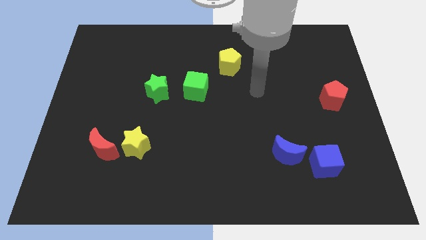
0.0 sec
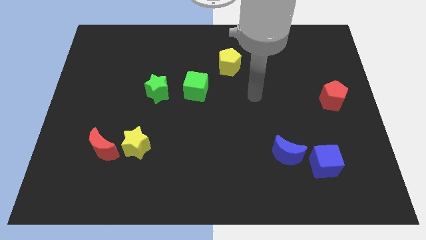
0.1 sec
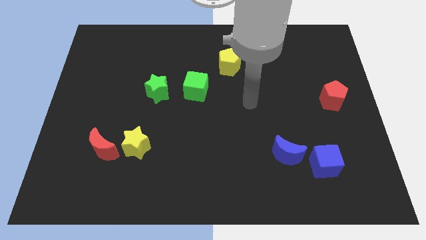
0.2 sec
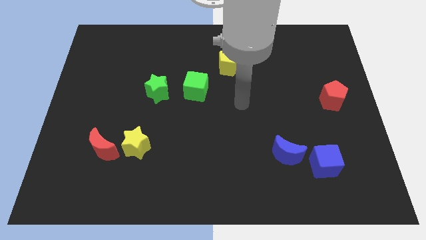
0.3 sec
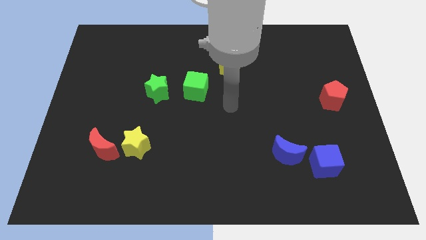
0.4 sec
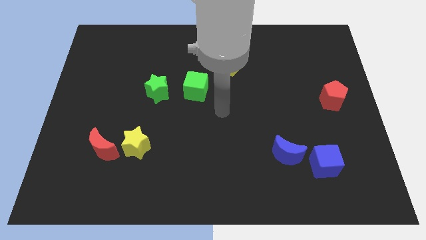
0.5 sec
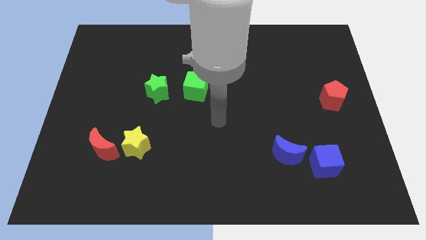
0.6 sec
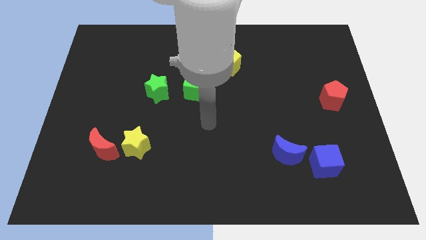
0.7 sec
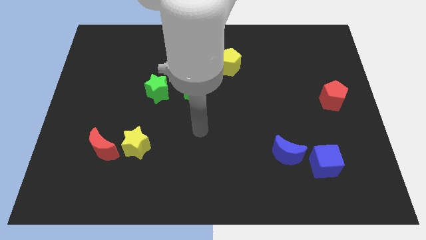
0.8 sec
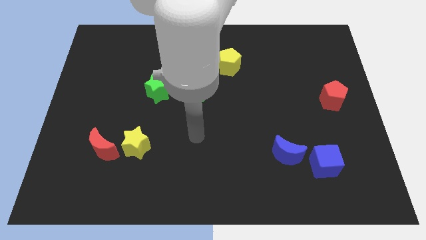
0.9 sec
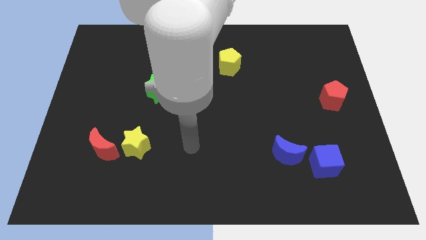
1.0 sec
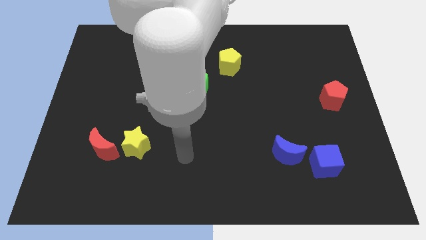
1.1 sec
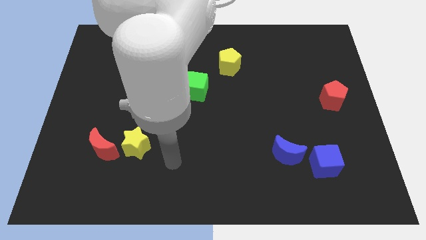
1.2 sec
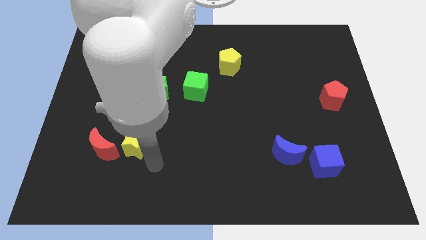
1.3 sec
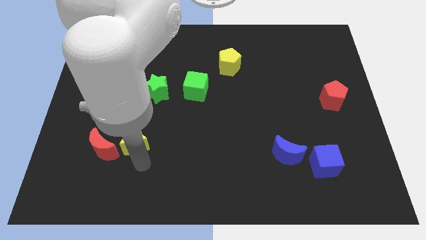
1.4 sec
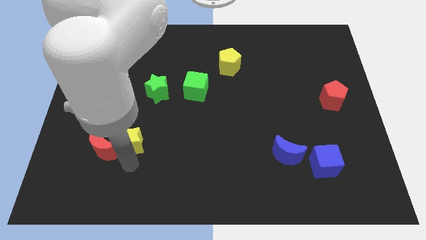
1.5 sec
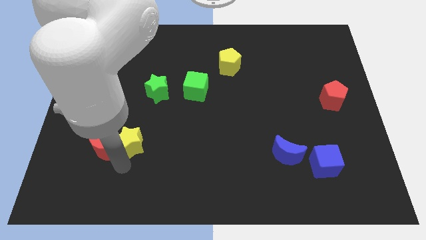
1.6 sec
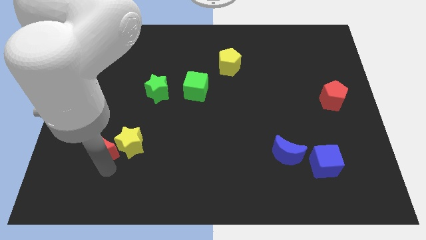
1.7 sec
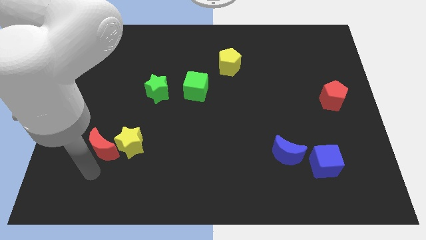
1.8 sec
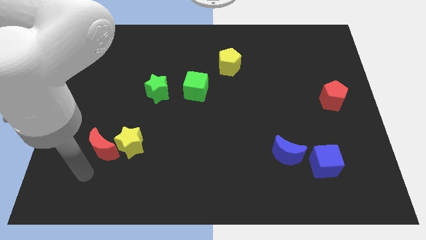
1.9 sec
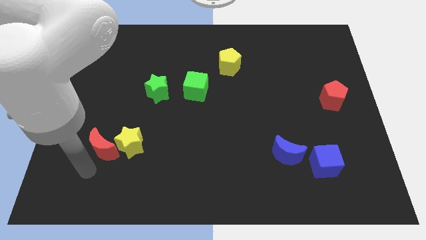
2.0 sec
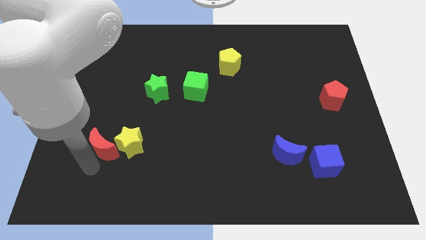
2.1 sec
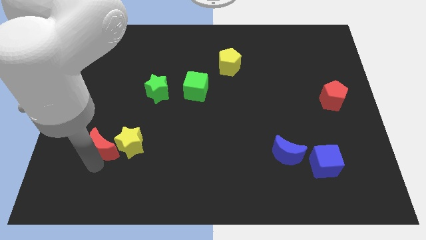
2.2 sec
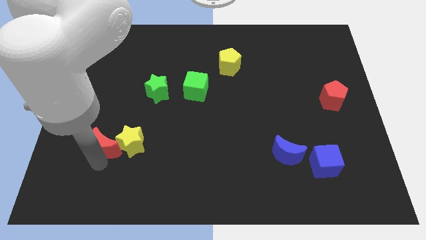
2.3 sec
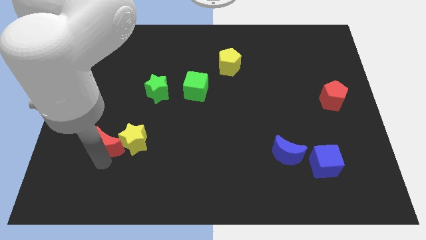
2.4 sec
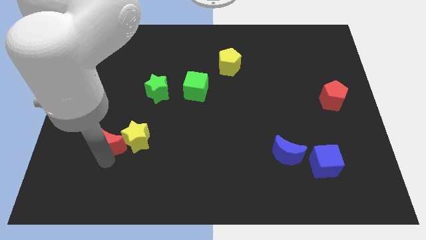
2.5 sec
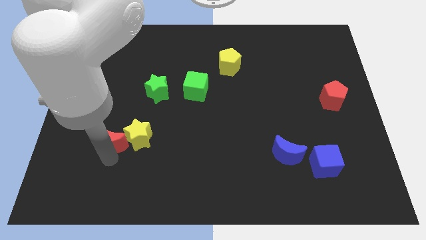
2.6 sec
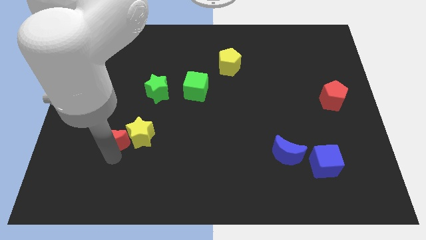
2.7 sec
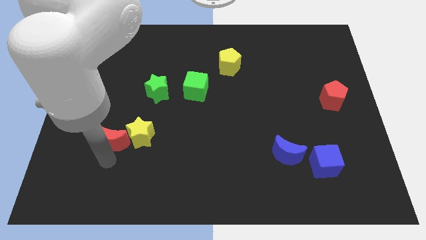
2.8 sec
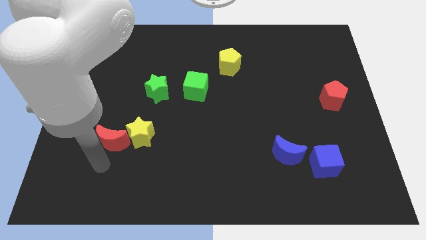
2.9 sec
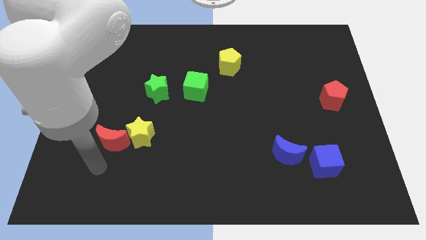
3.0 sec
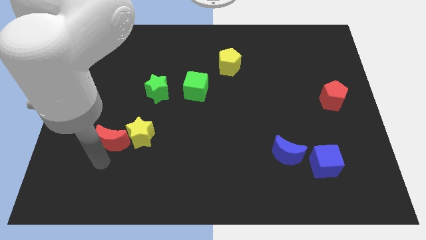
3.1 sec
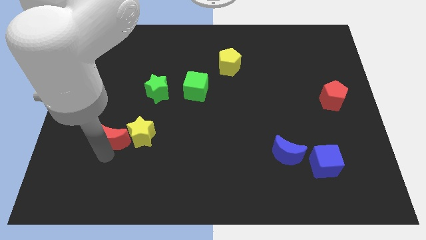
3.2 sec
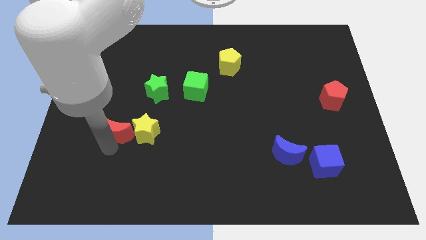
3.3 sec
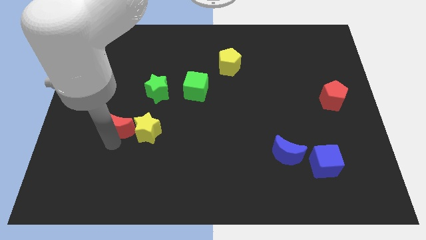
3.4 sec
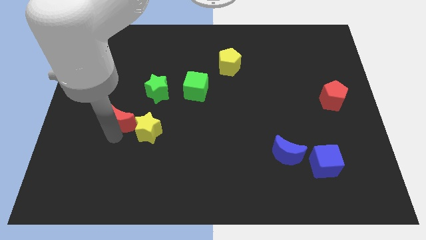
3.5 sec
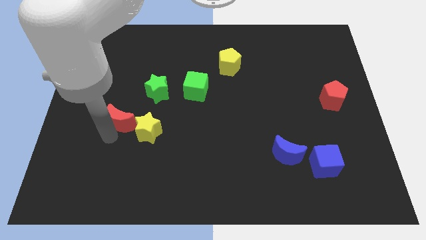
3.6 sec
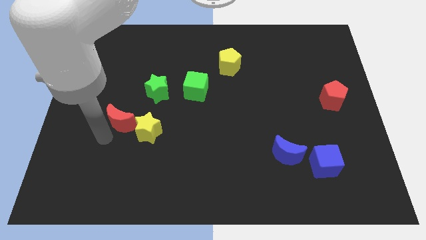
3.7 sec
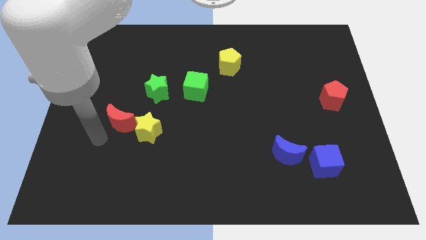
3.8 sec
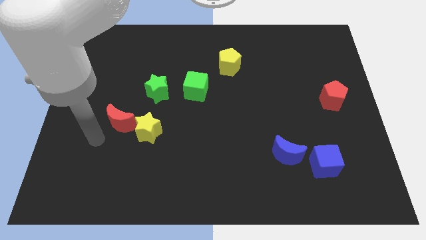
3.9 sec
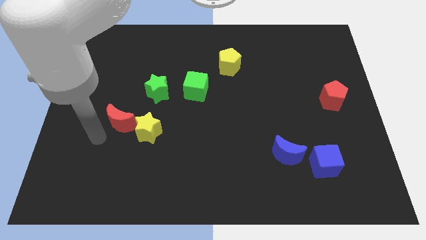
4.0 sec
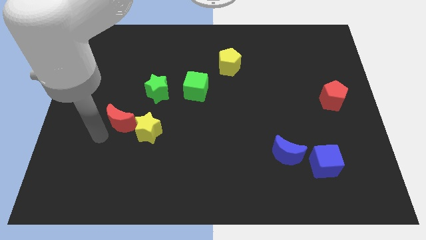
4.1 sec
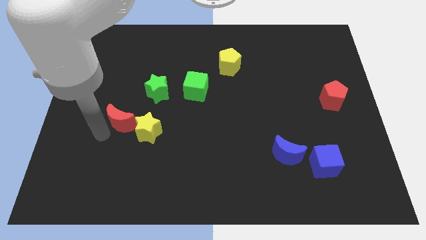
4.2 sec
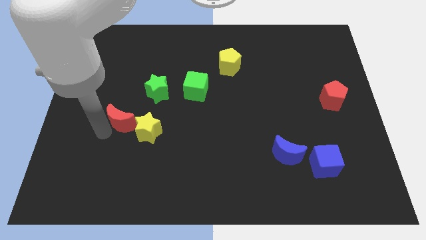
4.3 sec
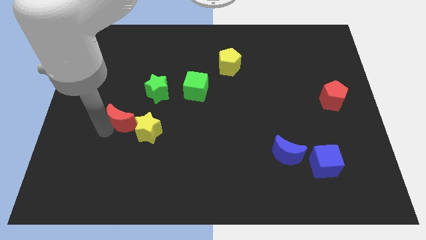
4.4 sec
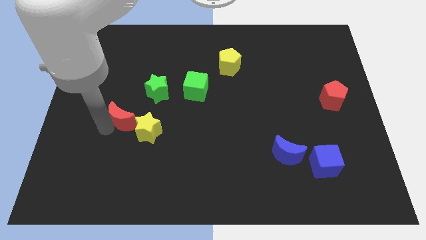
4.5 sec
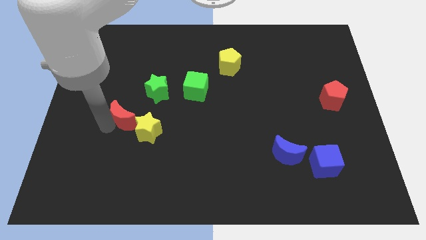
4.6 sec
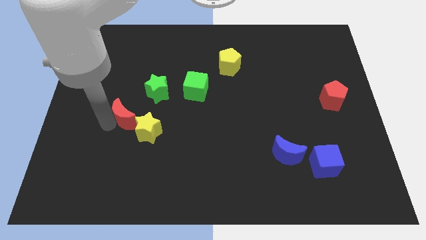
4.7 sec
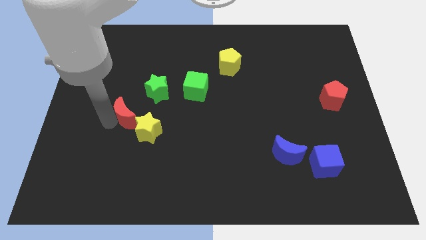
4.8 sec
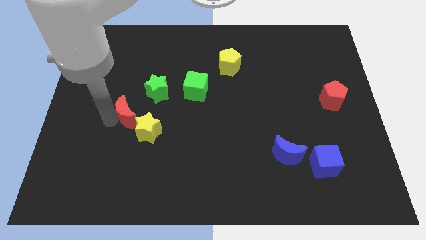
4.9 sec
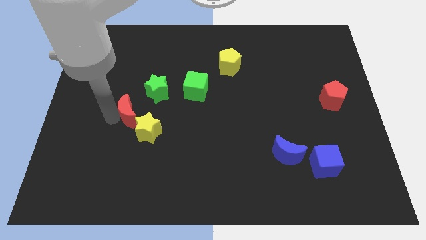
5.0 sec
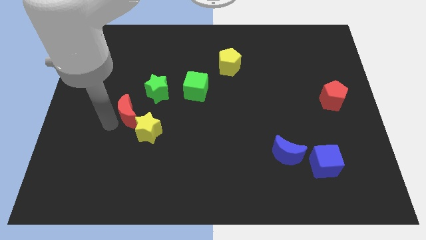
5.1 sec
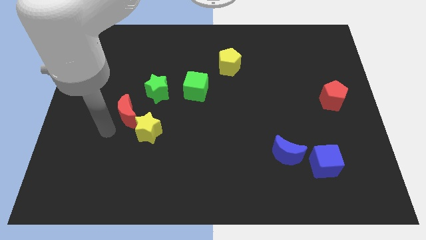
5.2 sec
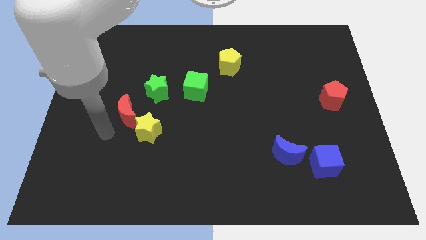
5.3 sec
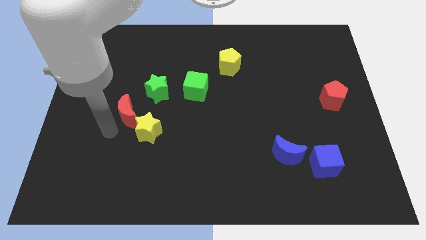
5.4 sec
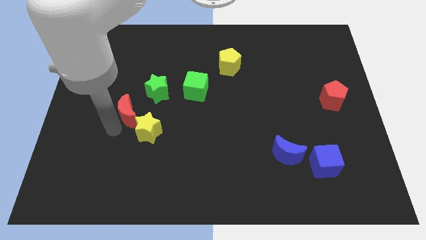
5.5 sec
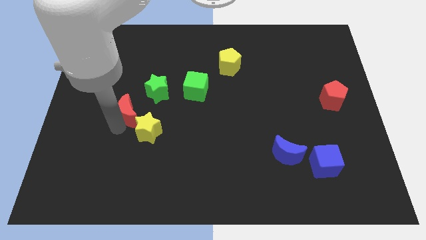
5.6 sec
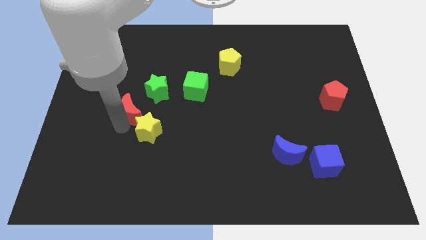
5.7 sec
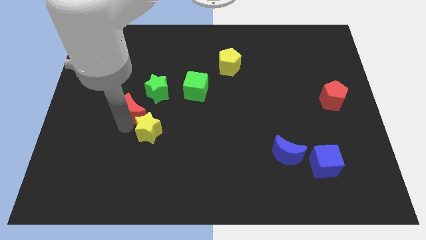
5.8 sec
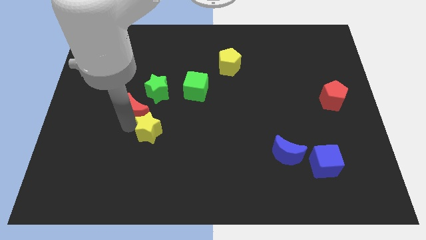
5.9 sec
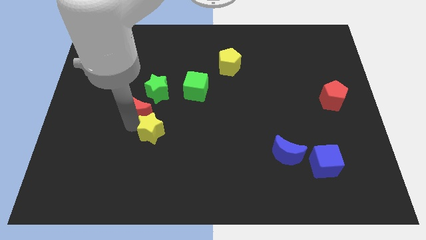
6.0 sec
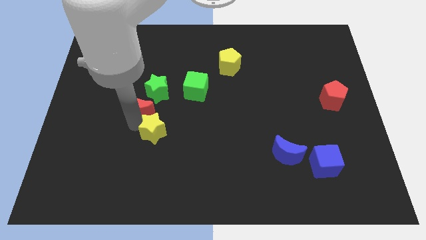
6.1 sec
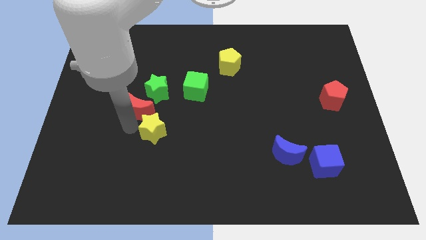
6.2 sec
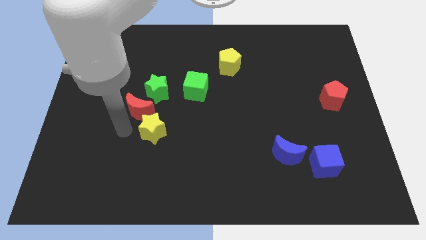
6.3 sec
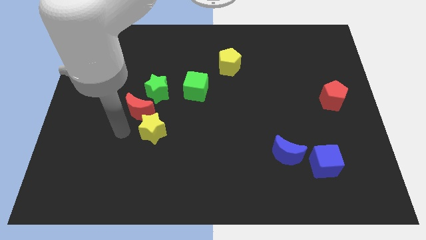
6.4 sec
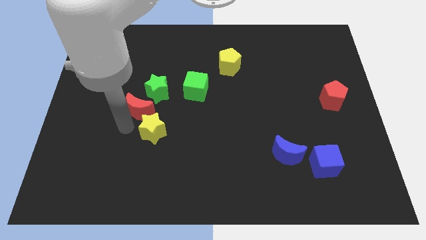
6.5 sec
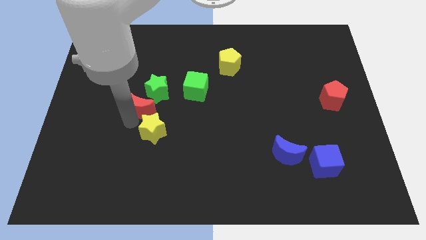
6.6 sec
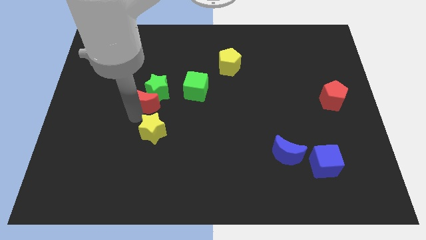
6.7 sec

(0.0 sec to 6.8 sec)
slide the red moon towards the green star
